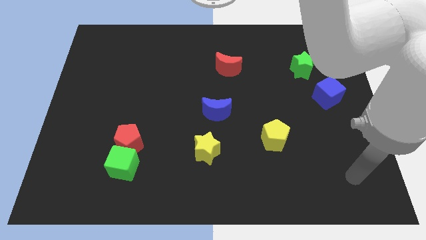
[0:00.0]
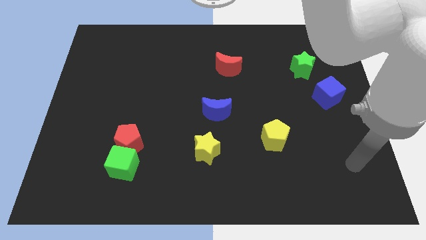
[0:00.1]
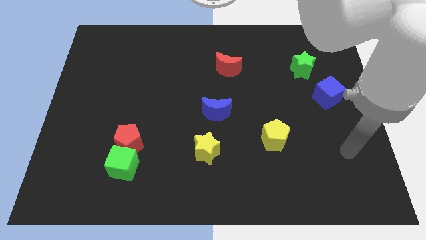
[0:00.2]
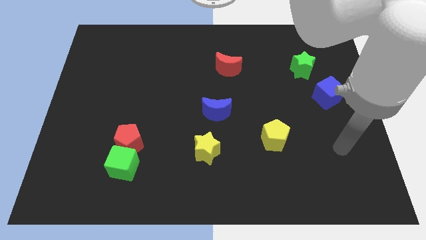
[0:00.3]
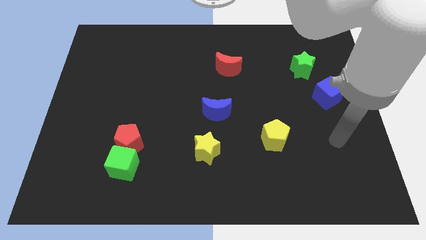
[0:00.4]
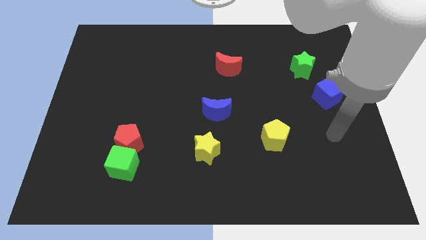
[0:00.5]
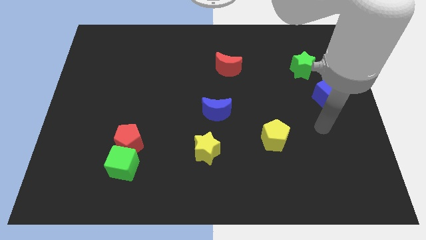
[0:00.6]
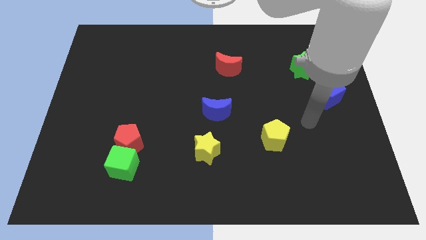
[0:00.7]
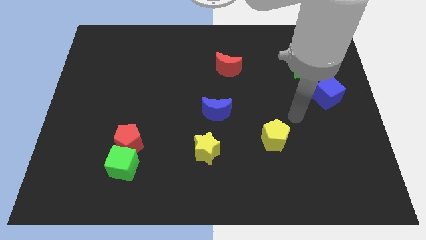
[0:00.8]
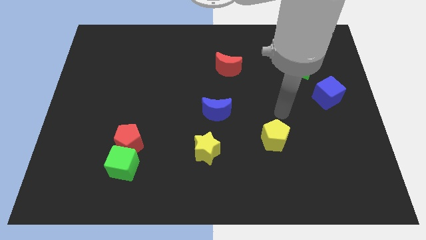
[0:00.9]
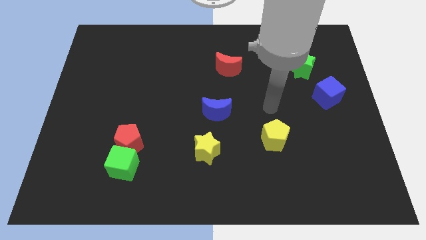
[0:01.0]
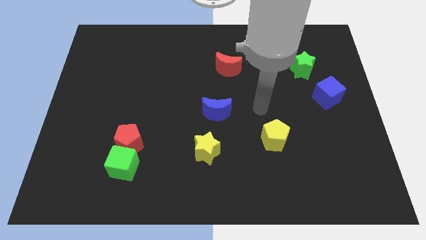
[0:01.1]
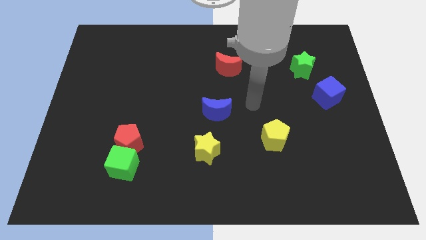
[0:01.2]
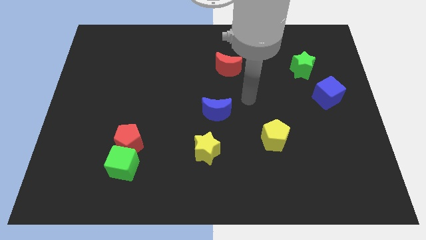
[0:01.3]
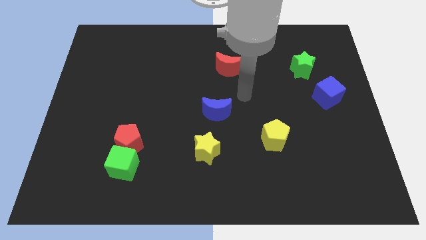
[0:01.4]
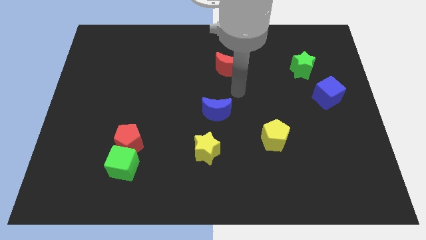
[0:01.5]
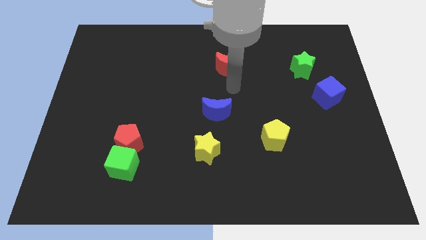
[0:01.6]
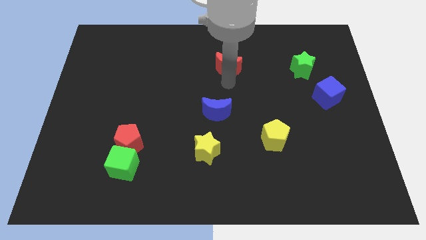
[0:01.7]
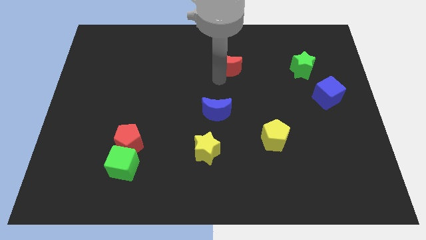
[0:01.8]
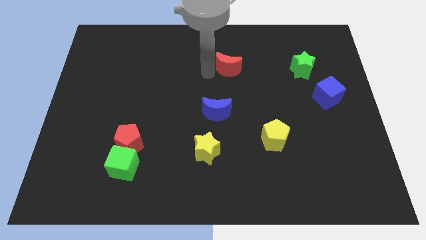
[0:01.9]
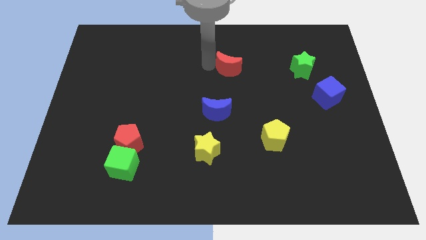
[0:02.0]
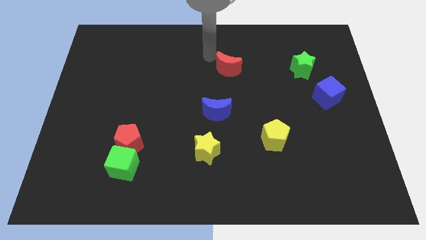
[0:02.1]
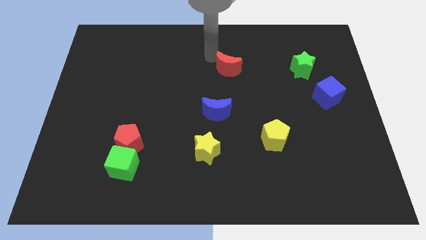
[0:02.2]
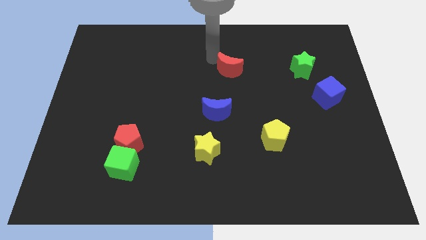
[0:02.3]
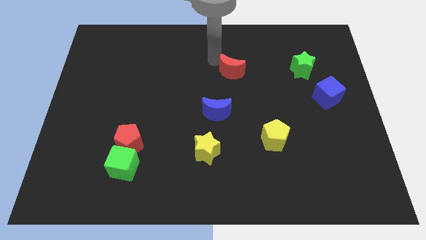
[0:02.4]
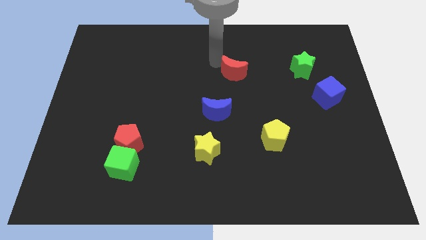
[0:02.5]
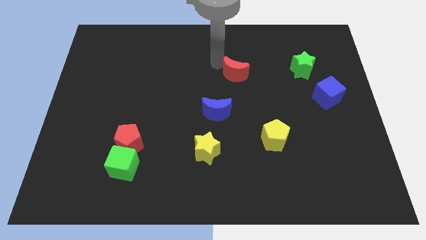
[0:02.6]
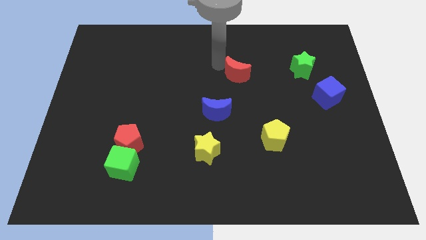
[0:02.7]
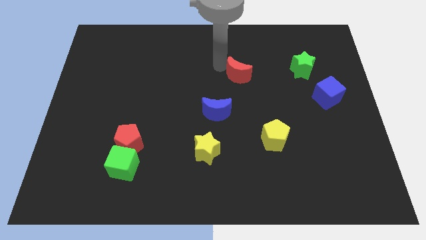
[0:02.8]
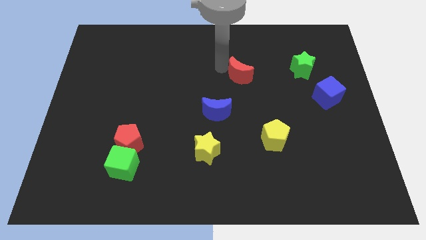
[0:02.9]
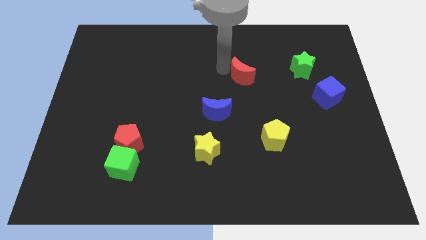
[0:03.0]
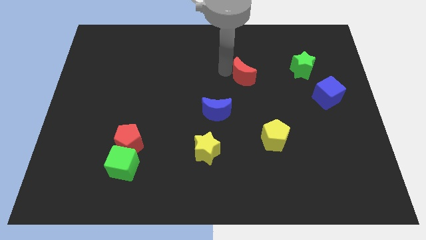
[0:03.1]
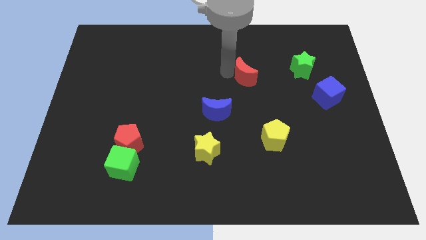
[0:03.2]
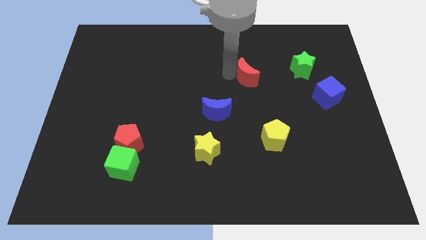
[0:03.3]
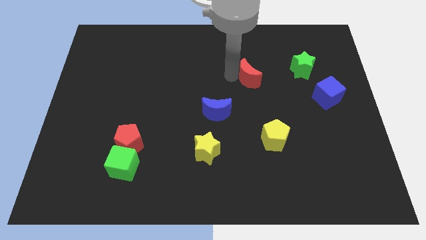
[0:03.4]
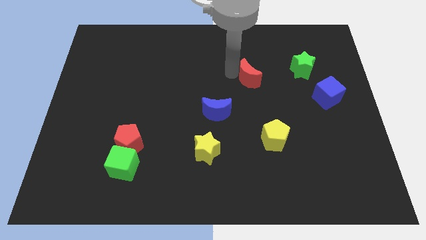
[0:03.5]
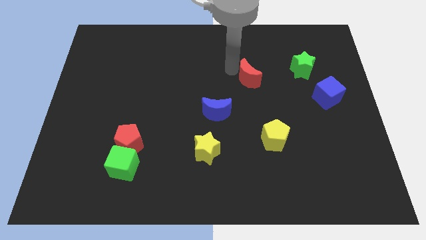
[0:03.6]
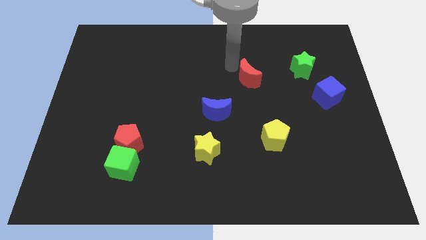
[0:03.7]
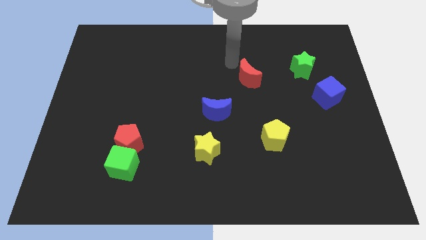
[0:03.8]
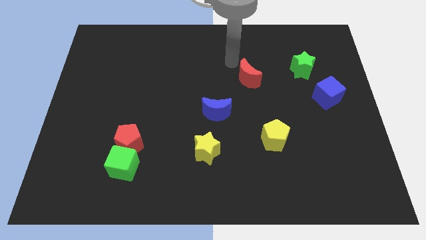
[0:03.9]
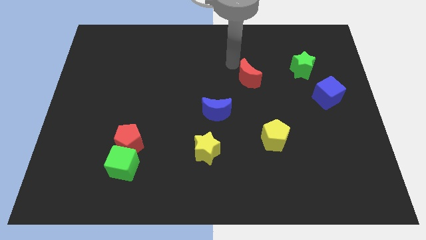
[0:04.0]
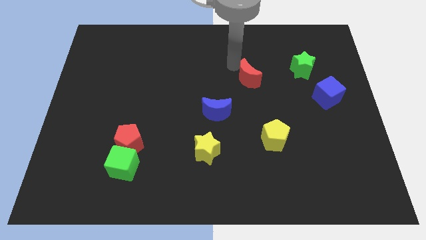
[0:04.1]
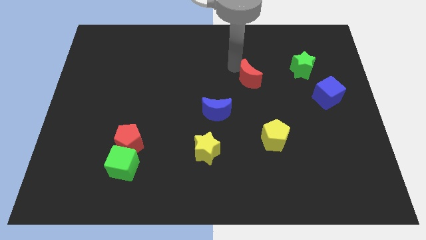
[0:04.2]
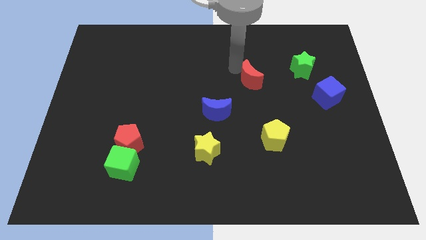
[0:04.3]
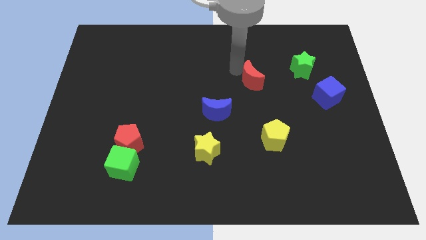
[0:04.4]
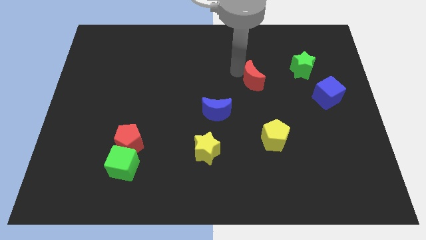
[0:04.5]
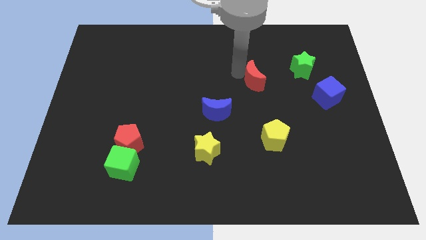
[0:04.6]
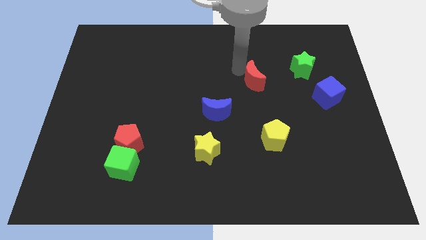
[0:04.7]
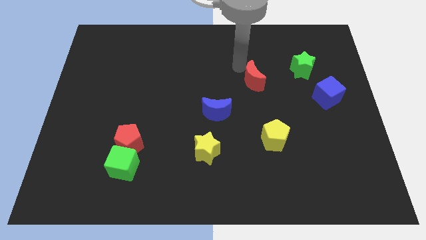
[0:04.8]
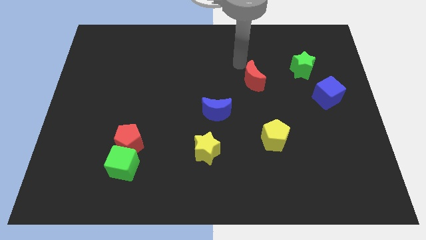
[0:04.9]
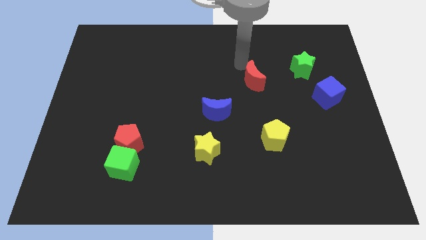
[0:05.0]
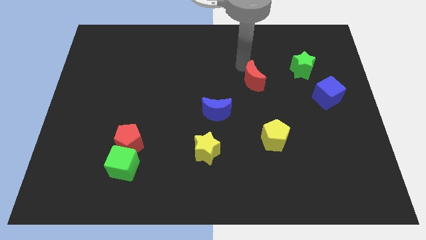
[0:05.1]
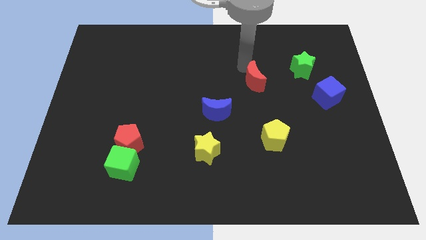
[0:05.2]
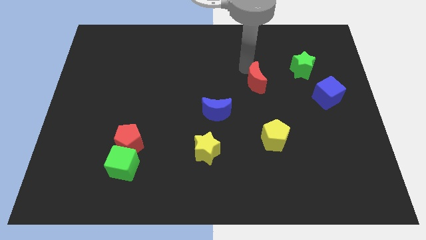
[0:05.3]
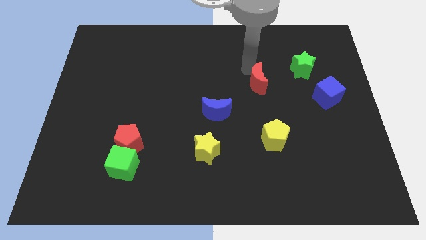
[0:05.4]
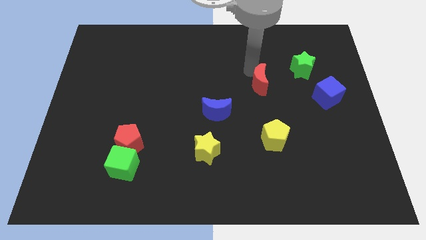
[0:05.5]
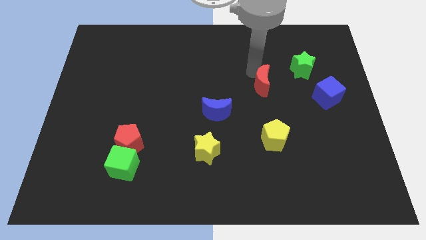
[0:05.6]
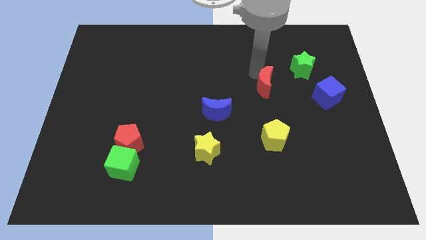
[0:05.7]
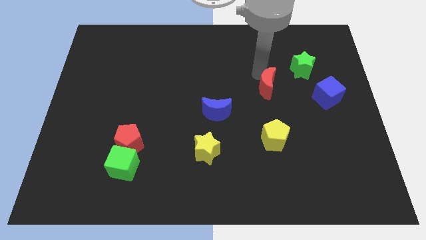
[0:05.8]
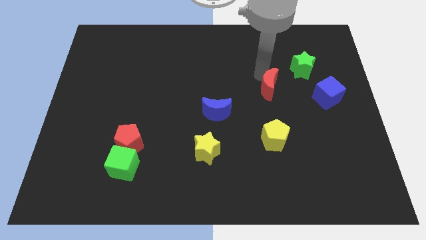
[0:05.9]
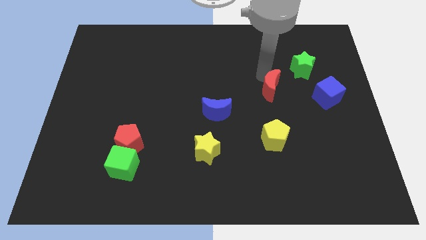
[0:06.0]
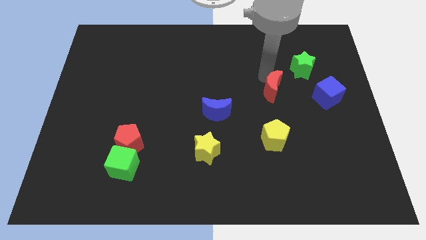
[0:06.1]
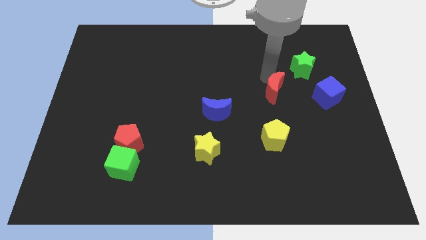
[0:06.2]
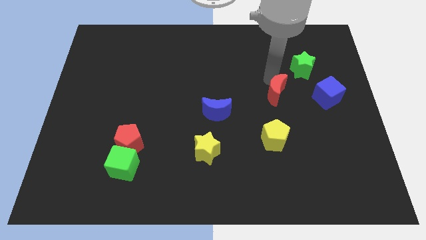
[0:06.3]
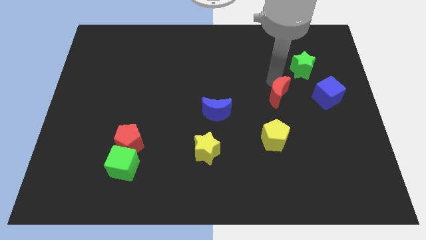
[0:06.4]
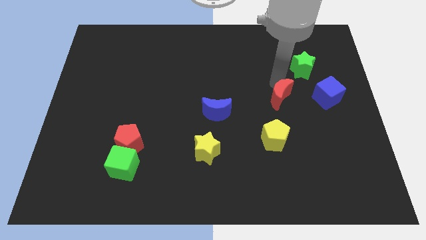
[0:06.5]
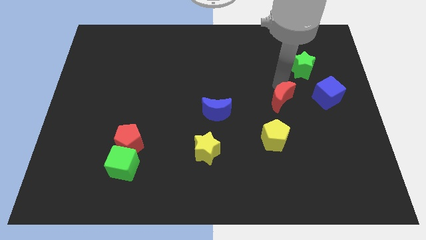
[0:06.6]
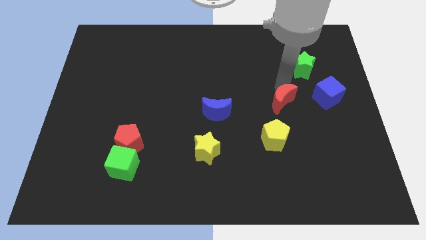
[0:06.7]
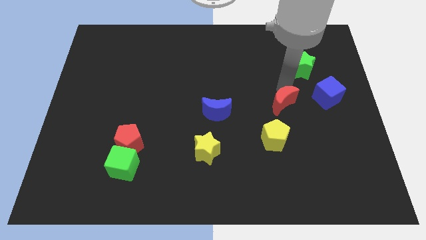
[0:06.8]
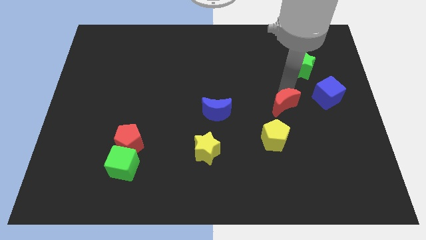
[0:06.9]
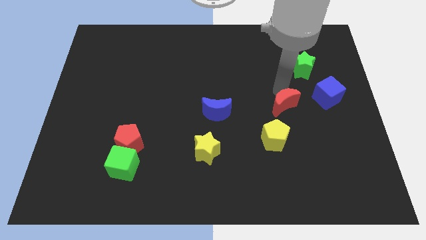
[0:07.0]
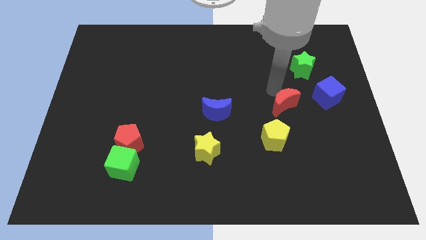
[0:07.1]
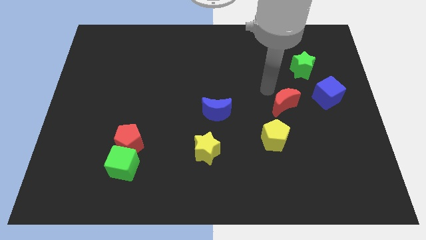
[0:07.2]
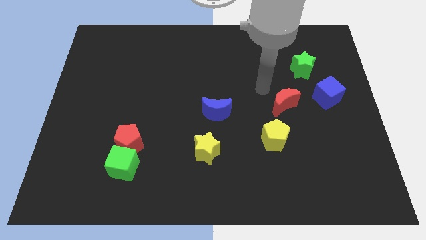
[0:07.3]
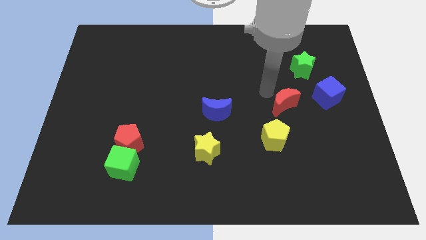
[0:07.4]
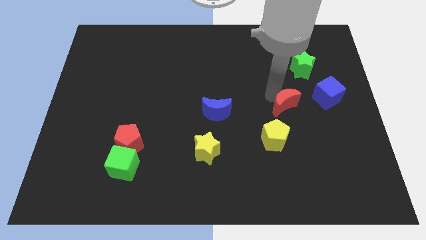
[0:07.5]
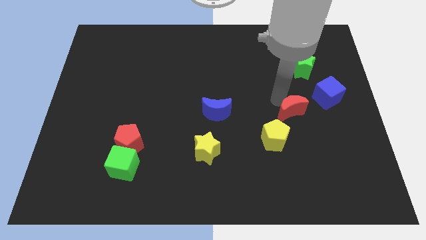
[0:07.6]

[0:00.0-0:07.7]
slide the red moon down and then to the right

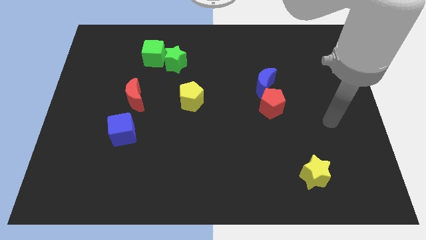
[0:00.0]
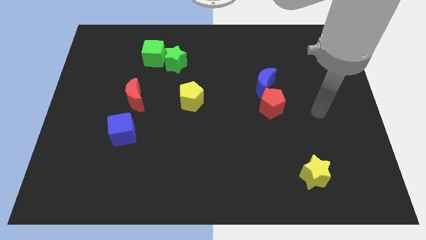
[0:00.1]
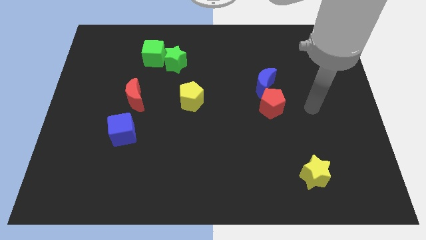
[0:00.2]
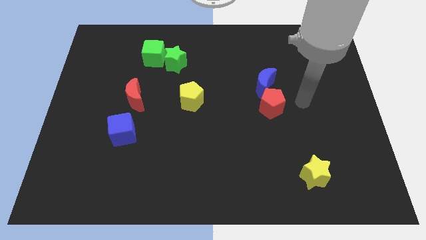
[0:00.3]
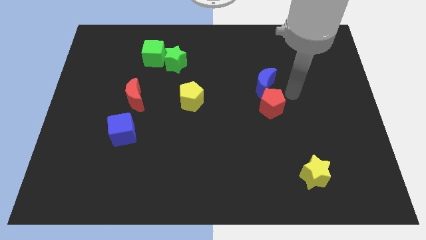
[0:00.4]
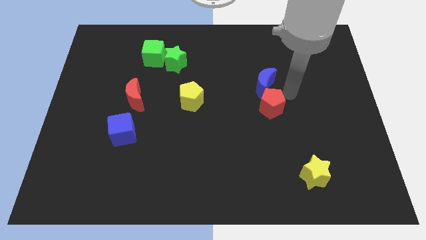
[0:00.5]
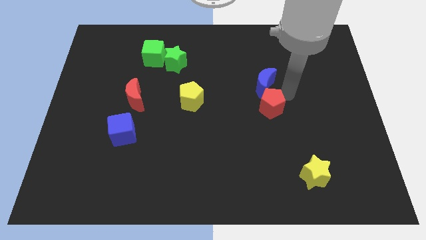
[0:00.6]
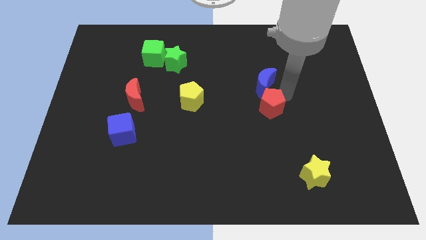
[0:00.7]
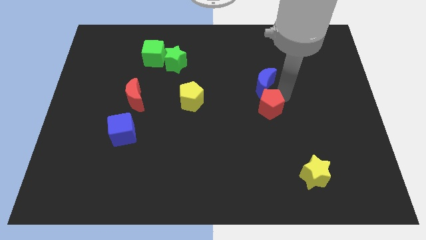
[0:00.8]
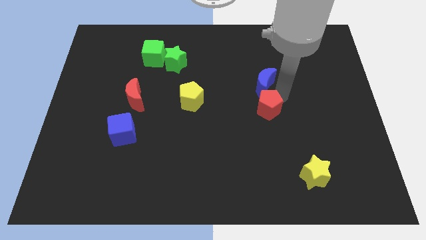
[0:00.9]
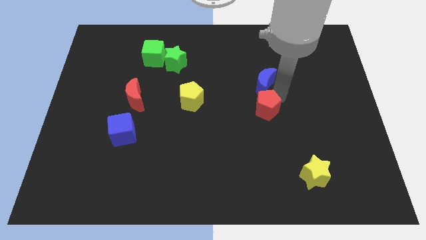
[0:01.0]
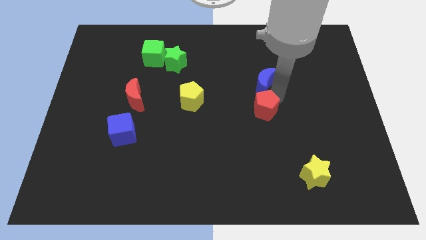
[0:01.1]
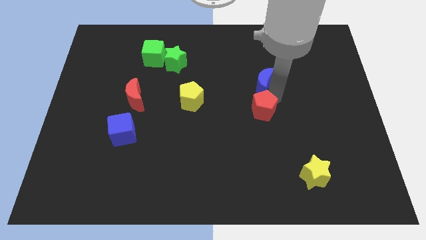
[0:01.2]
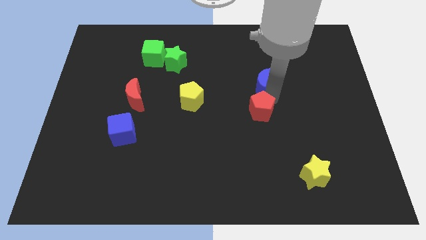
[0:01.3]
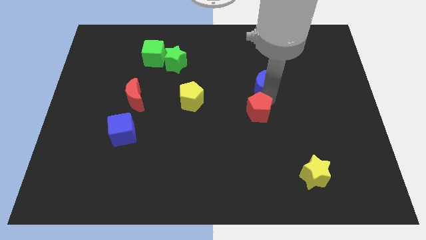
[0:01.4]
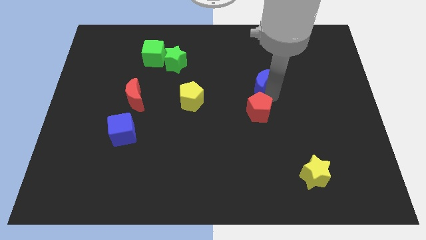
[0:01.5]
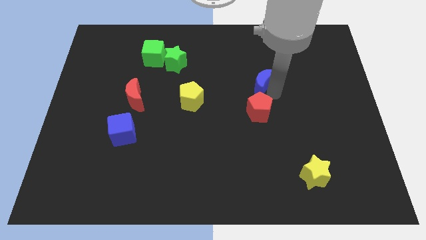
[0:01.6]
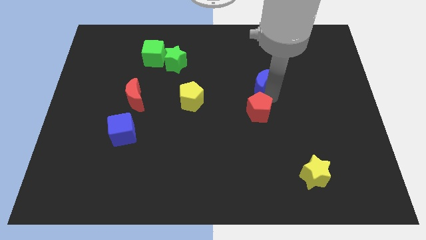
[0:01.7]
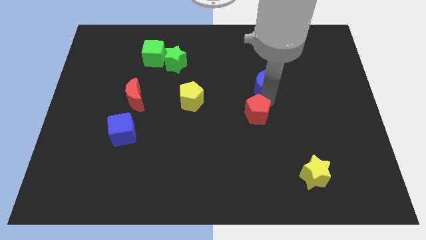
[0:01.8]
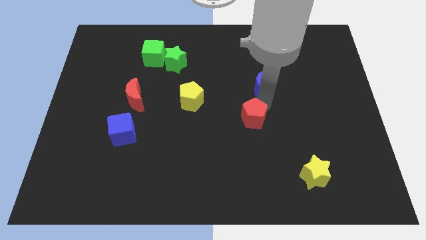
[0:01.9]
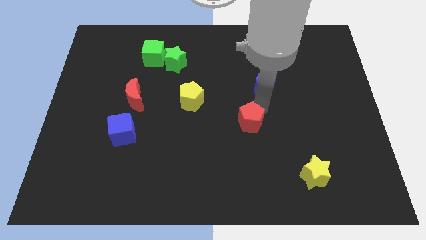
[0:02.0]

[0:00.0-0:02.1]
slightly slide the red pentagon diagonally down and left
